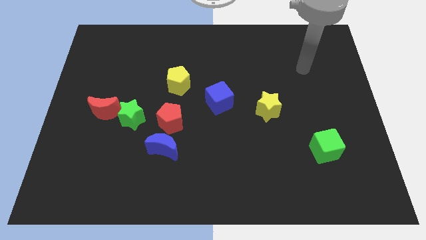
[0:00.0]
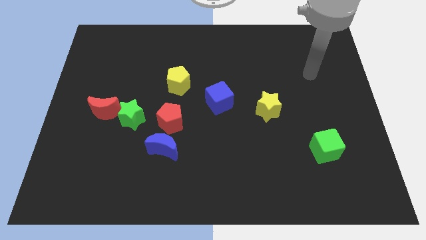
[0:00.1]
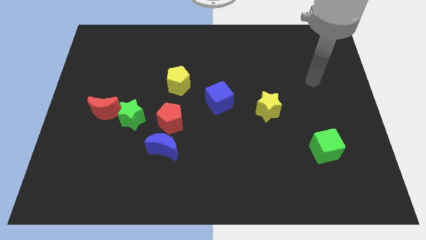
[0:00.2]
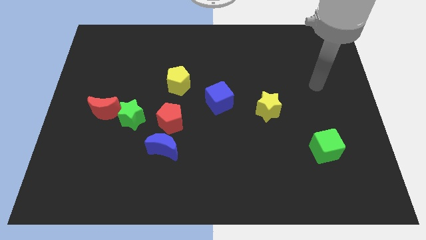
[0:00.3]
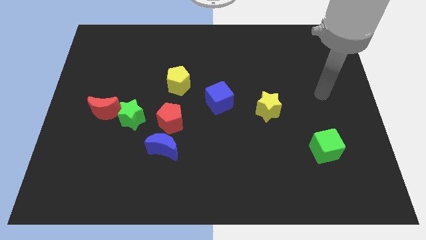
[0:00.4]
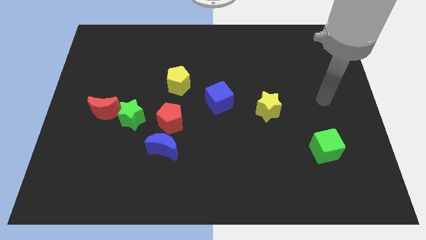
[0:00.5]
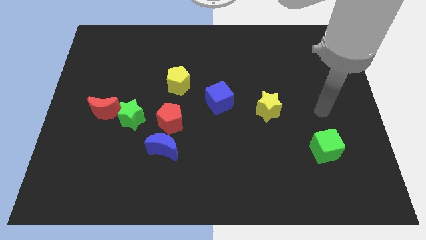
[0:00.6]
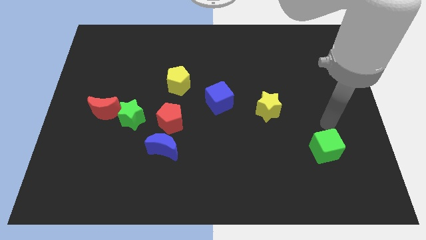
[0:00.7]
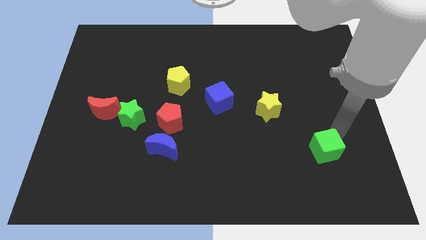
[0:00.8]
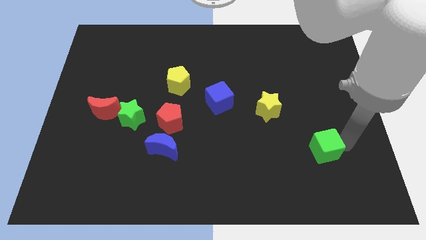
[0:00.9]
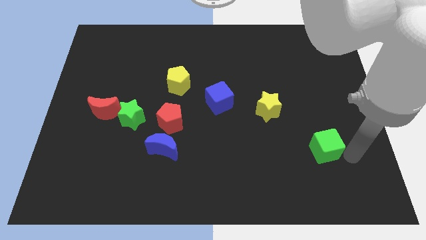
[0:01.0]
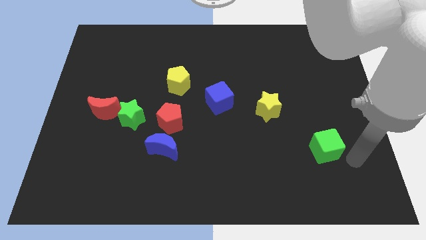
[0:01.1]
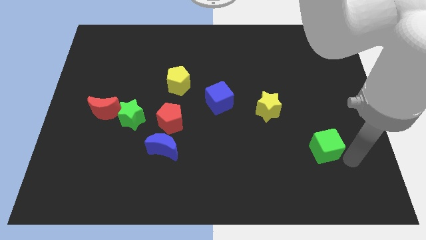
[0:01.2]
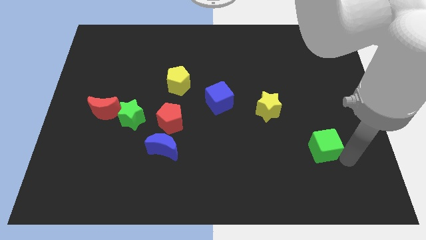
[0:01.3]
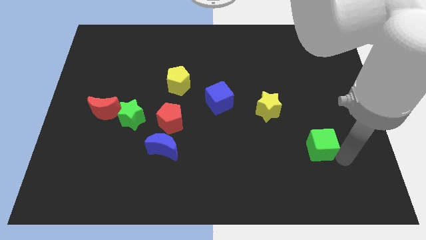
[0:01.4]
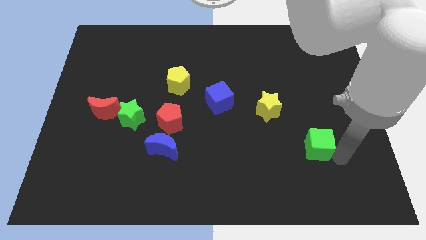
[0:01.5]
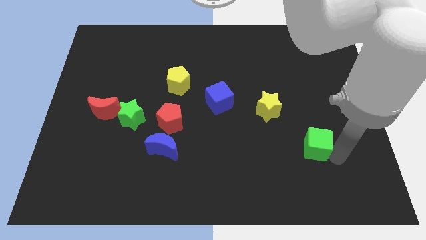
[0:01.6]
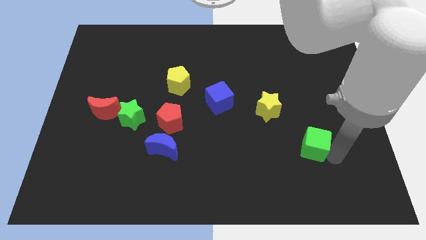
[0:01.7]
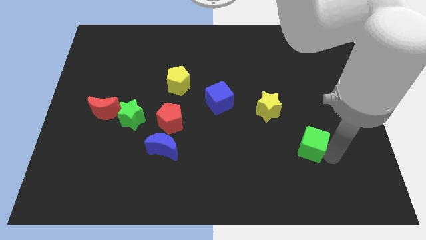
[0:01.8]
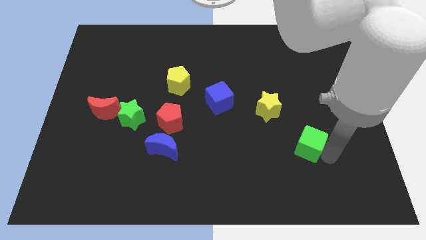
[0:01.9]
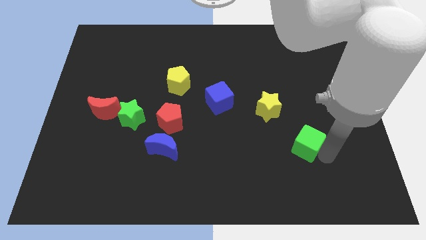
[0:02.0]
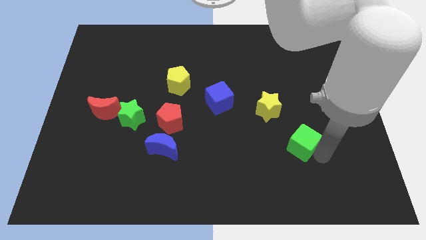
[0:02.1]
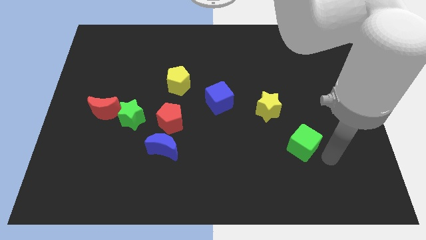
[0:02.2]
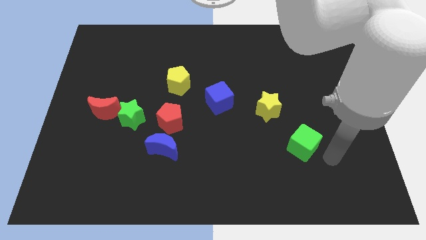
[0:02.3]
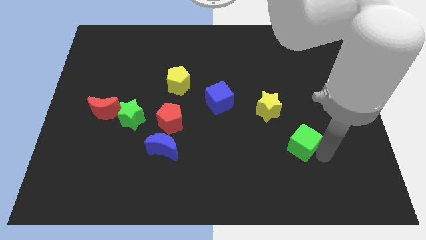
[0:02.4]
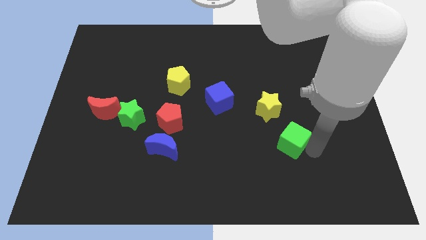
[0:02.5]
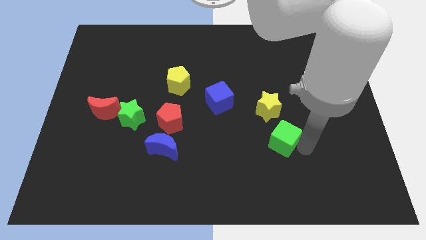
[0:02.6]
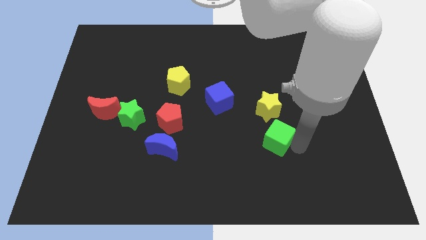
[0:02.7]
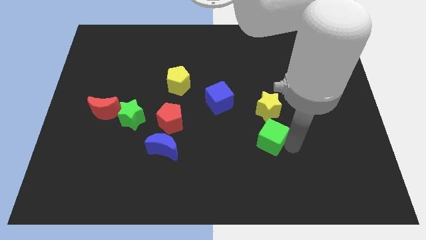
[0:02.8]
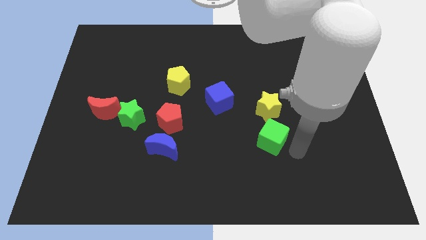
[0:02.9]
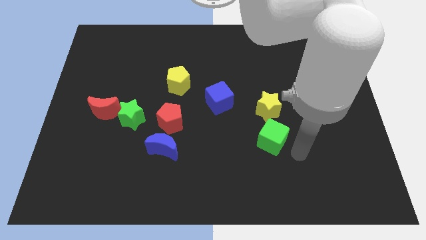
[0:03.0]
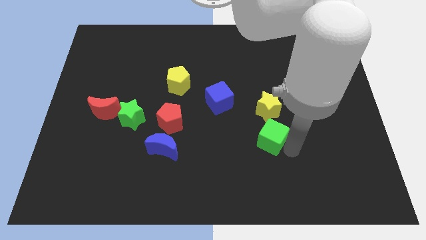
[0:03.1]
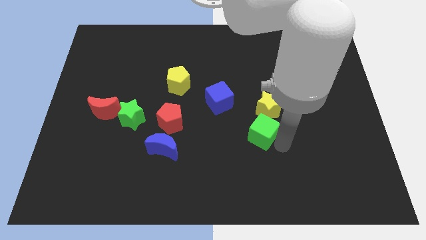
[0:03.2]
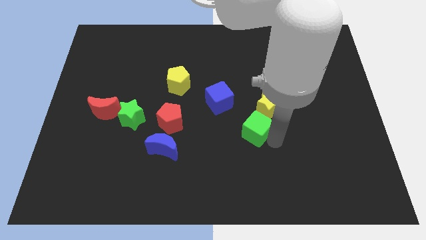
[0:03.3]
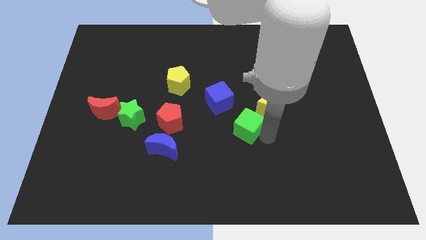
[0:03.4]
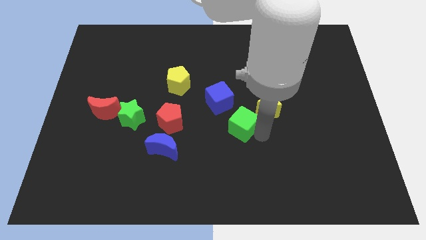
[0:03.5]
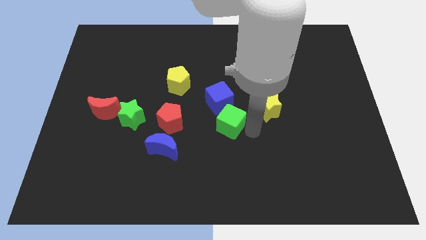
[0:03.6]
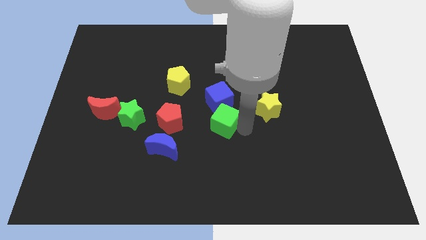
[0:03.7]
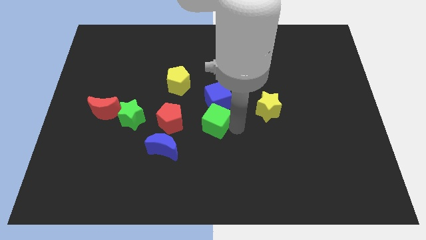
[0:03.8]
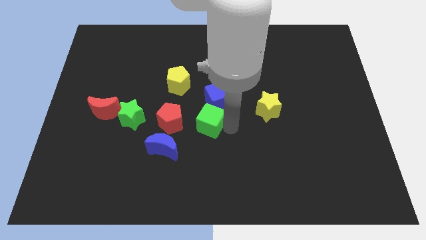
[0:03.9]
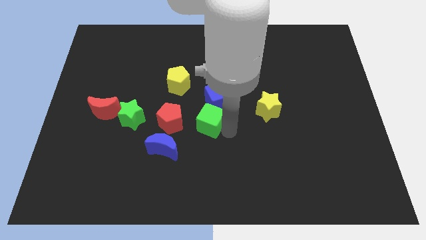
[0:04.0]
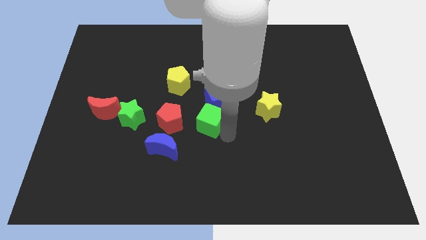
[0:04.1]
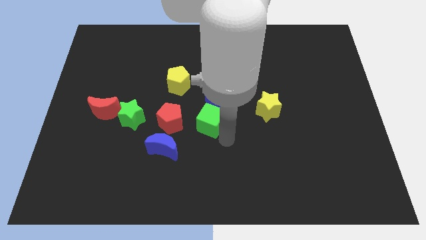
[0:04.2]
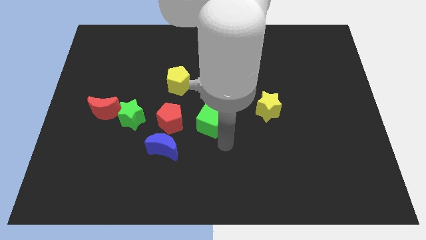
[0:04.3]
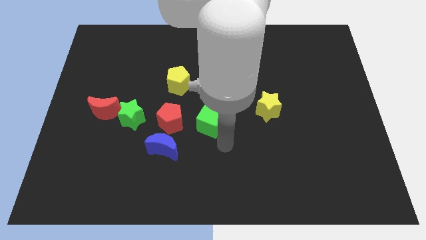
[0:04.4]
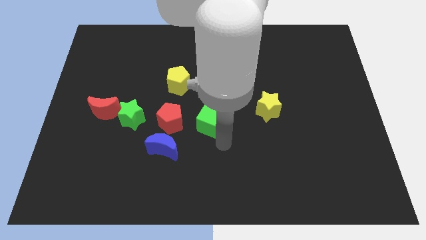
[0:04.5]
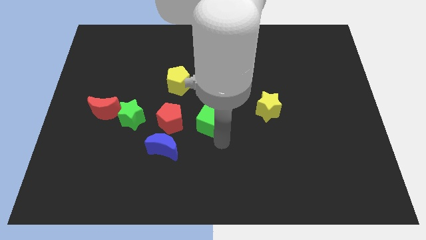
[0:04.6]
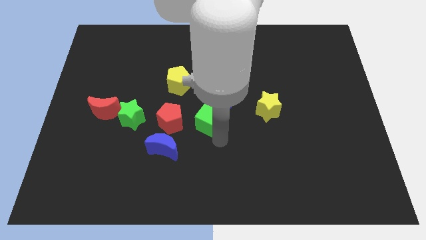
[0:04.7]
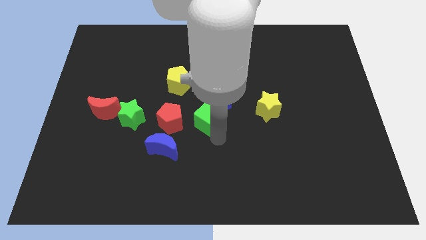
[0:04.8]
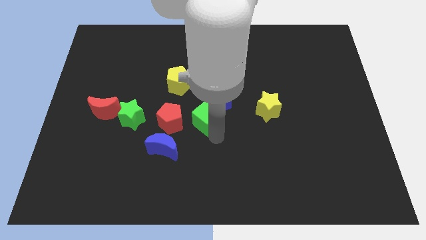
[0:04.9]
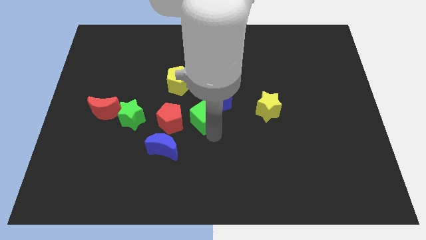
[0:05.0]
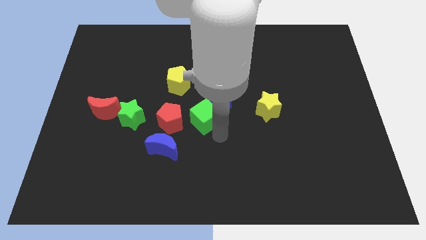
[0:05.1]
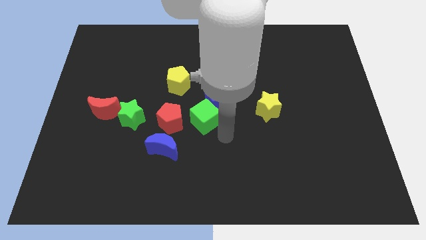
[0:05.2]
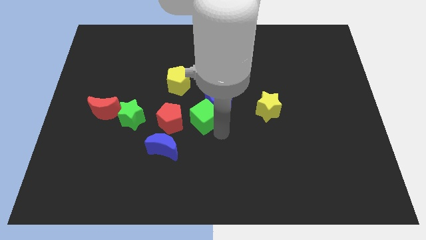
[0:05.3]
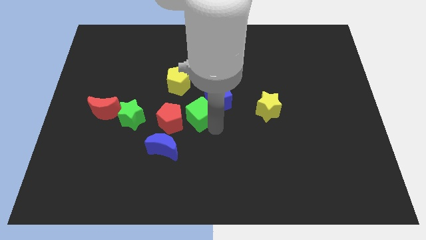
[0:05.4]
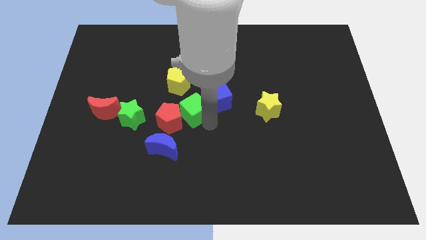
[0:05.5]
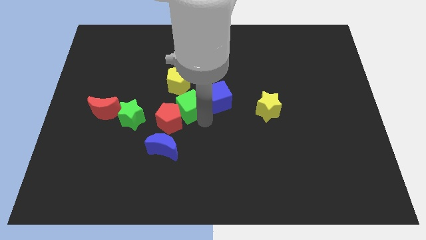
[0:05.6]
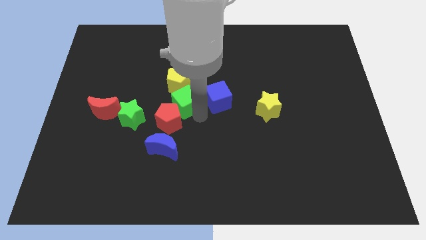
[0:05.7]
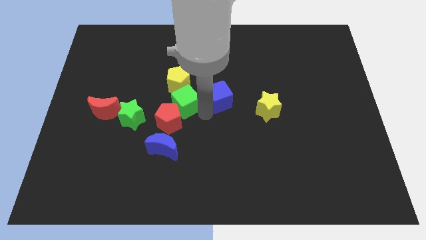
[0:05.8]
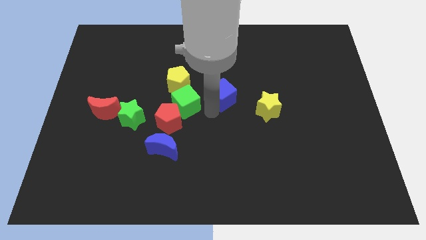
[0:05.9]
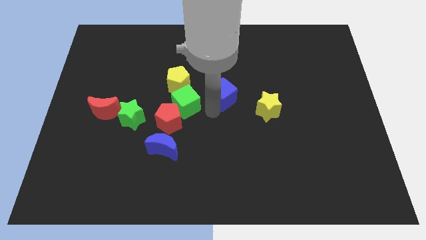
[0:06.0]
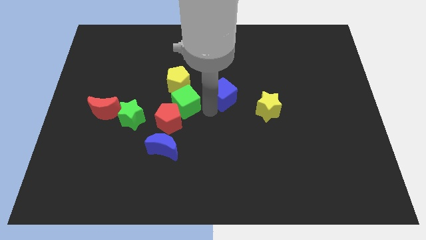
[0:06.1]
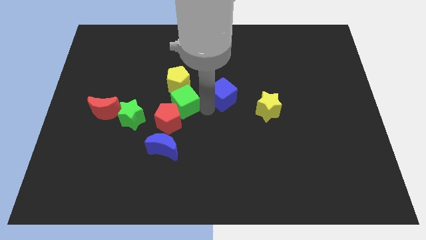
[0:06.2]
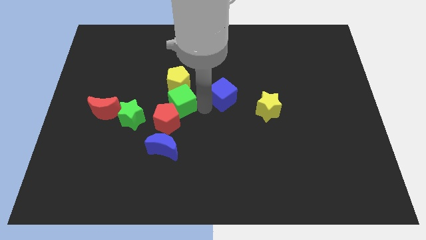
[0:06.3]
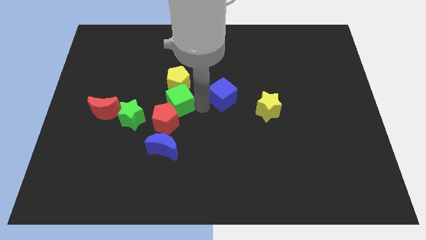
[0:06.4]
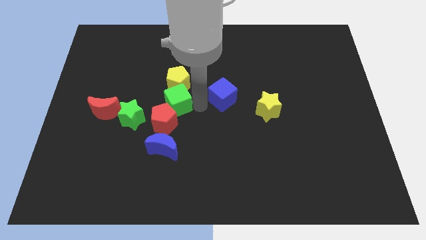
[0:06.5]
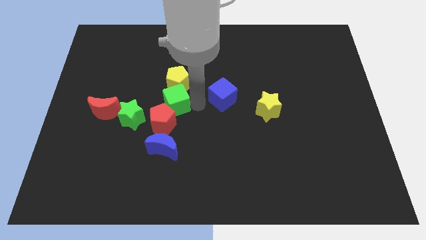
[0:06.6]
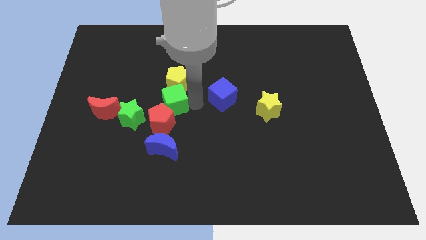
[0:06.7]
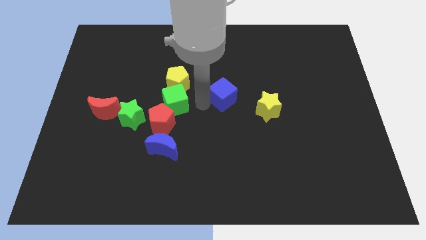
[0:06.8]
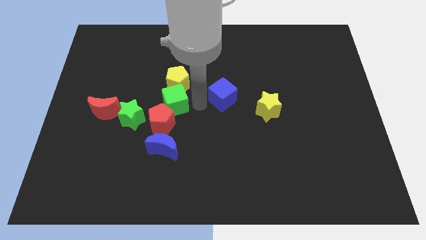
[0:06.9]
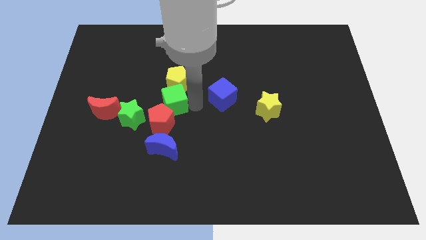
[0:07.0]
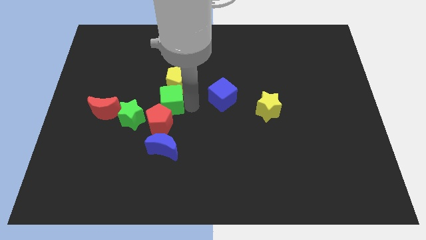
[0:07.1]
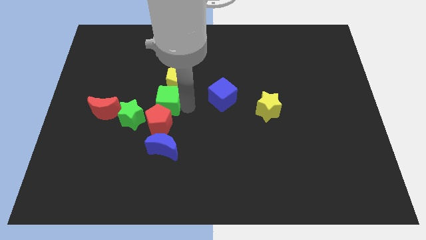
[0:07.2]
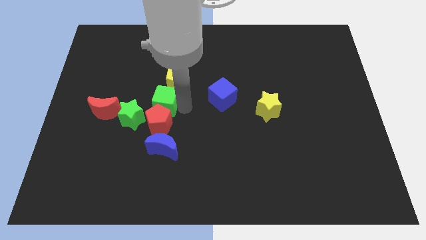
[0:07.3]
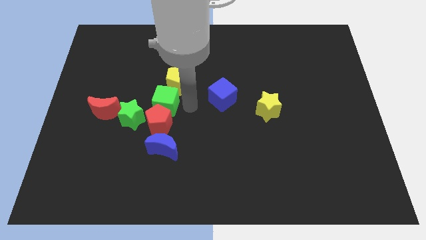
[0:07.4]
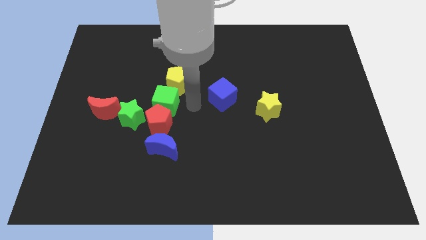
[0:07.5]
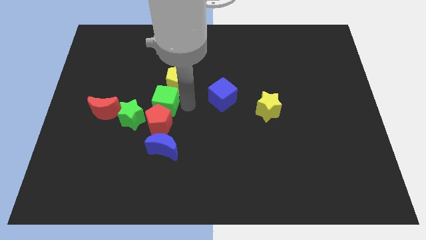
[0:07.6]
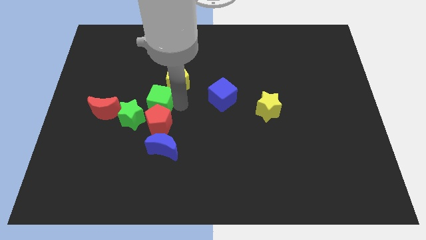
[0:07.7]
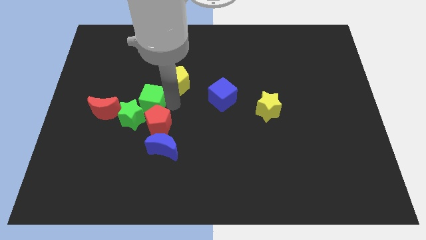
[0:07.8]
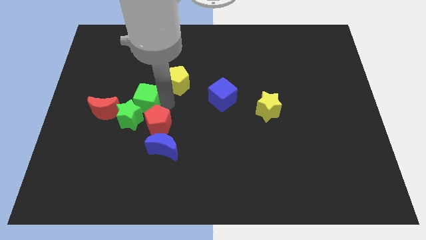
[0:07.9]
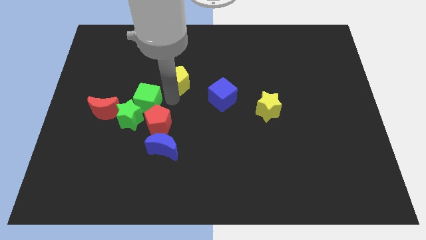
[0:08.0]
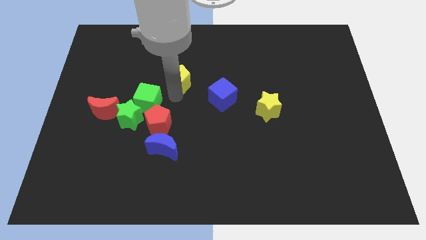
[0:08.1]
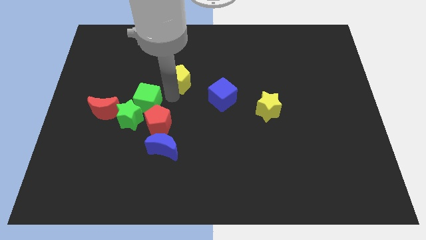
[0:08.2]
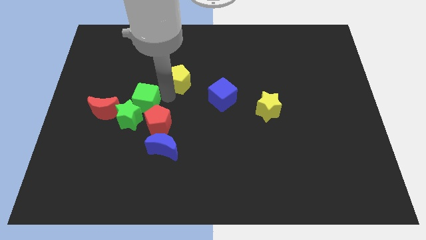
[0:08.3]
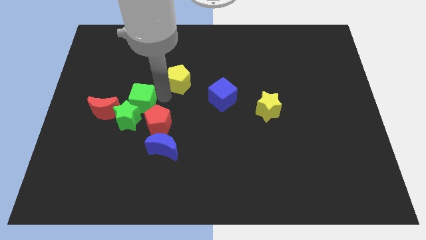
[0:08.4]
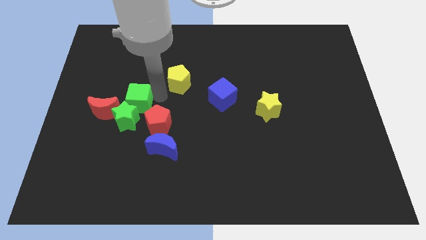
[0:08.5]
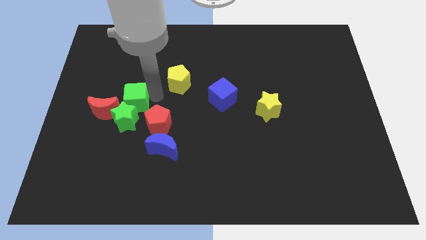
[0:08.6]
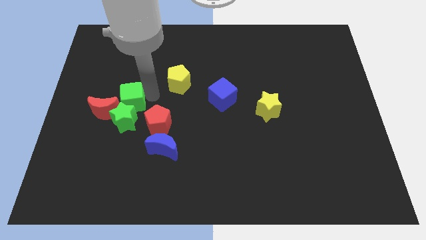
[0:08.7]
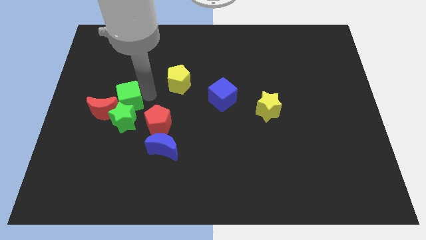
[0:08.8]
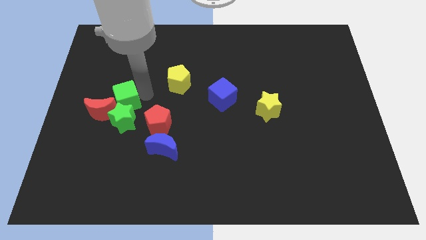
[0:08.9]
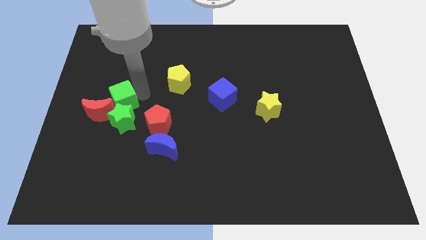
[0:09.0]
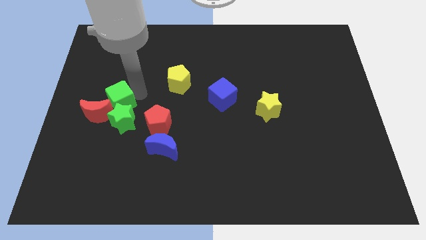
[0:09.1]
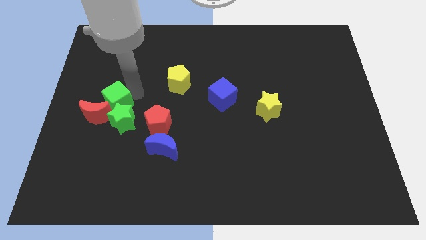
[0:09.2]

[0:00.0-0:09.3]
push the green cube towards the red moon
